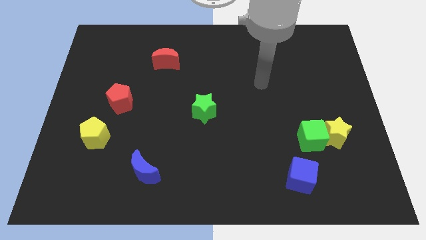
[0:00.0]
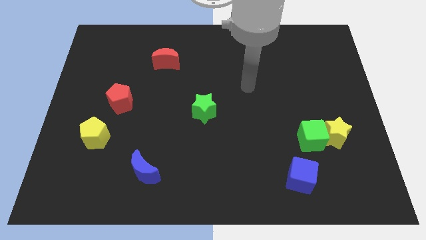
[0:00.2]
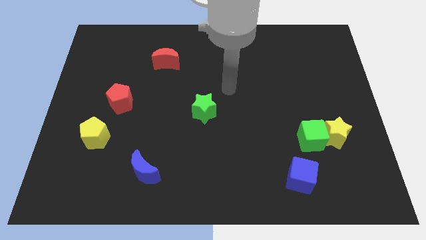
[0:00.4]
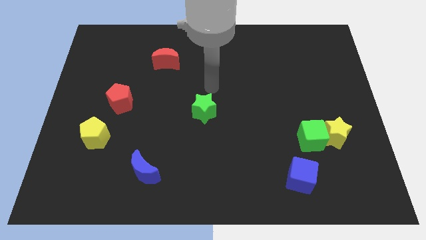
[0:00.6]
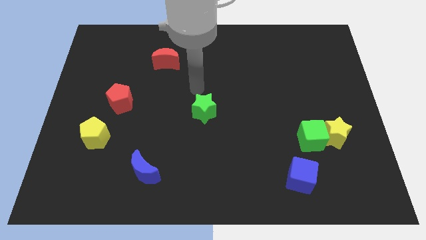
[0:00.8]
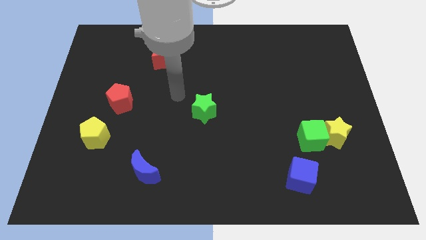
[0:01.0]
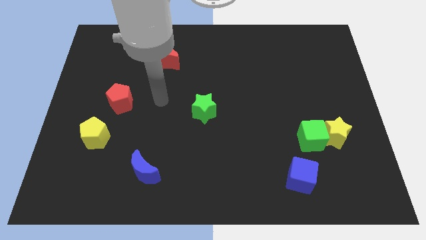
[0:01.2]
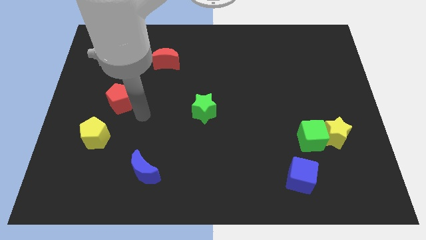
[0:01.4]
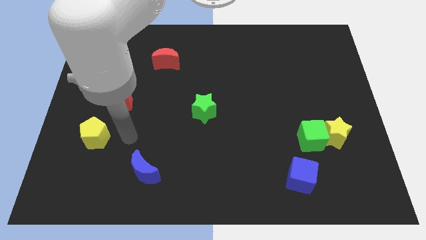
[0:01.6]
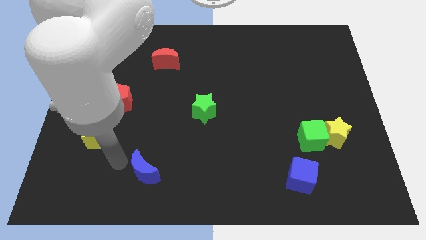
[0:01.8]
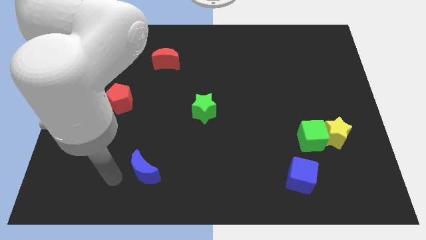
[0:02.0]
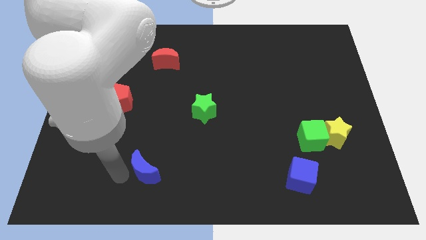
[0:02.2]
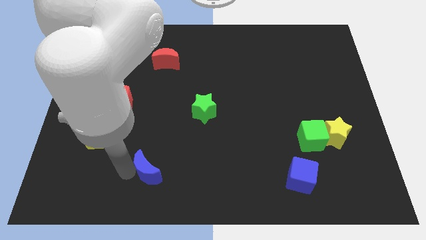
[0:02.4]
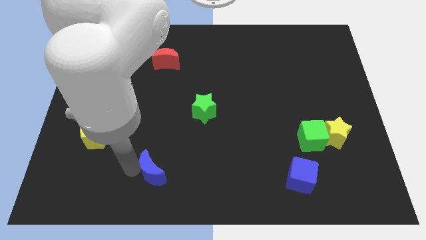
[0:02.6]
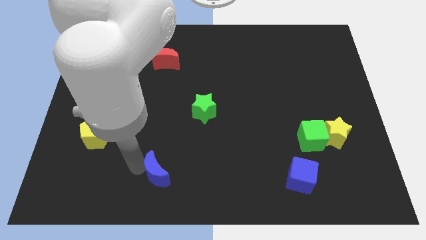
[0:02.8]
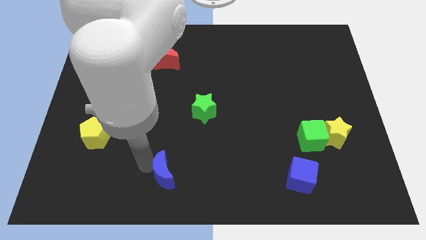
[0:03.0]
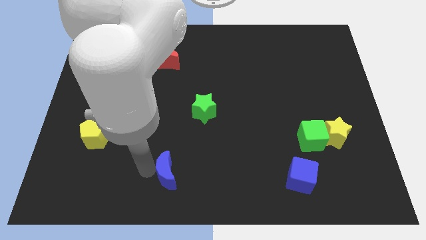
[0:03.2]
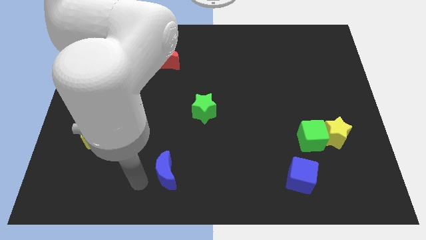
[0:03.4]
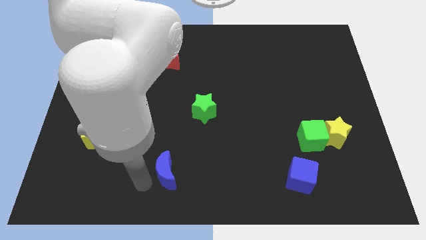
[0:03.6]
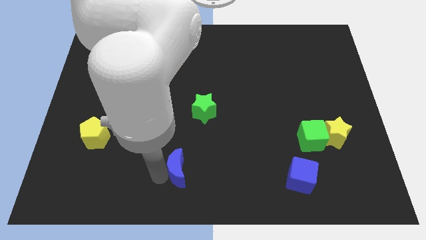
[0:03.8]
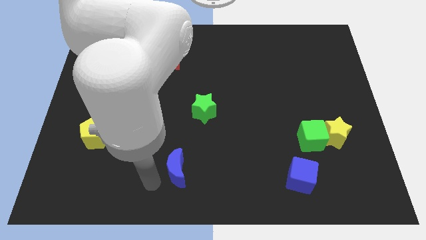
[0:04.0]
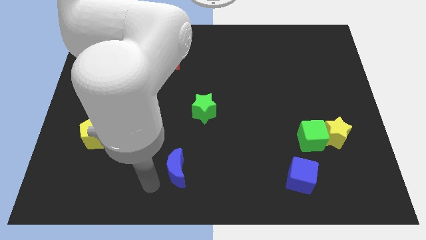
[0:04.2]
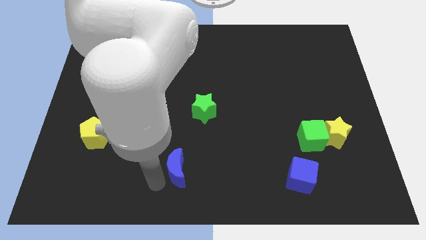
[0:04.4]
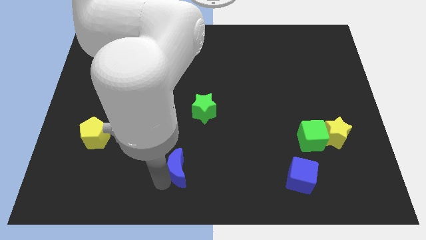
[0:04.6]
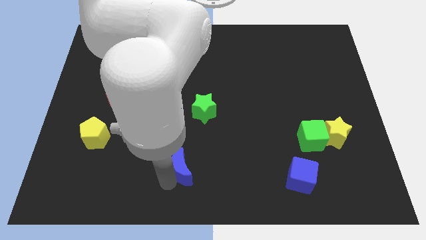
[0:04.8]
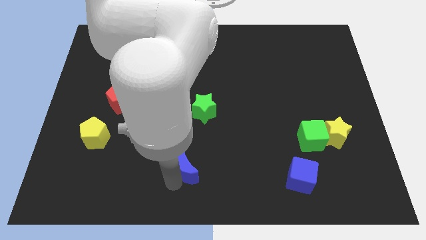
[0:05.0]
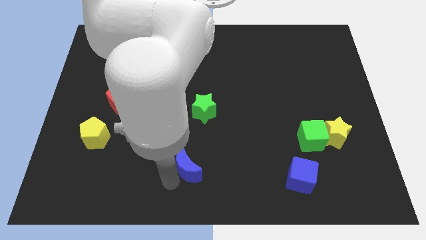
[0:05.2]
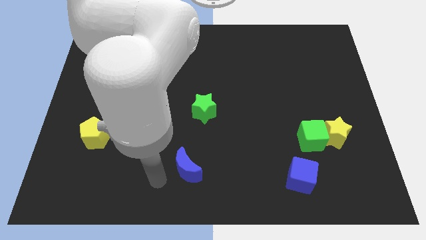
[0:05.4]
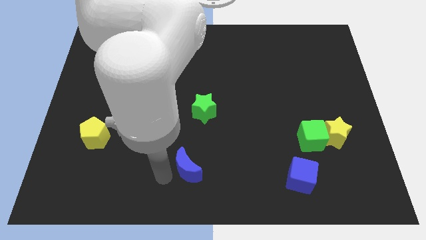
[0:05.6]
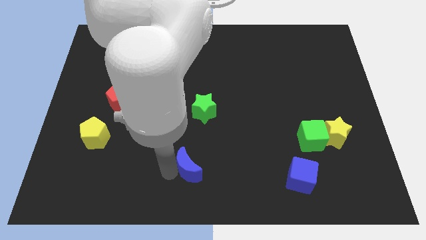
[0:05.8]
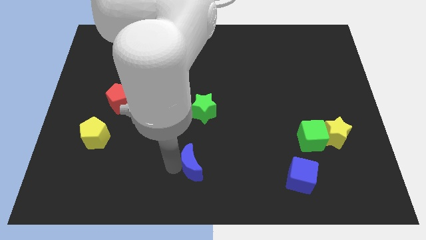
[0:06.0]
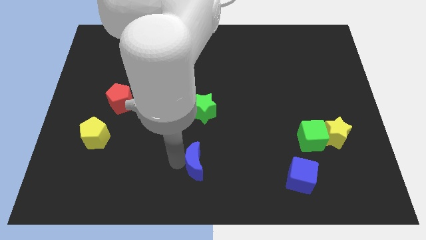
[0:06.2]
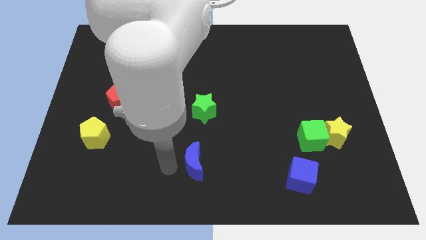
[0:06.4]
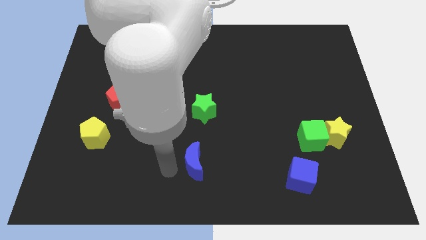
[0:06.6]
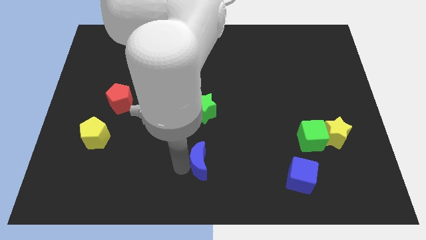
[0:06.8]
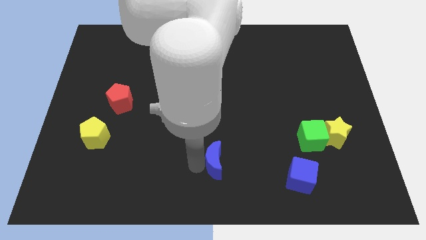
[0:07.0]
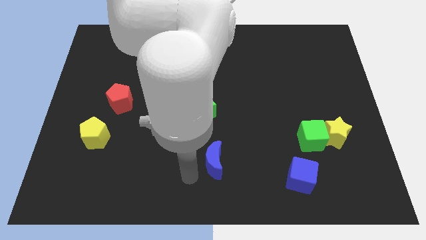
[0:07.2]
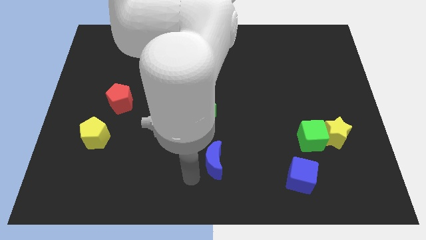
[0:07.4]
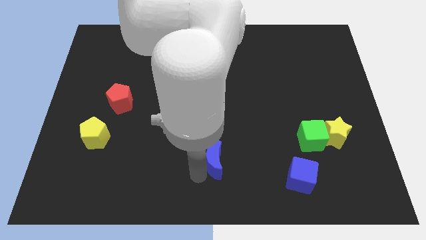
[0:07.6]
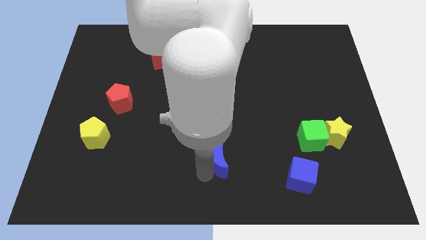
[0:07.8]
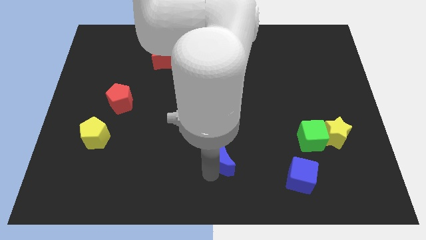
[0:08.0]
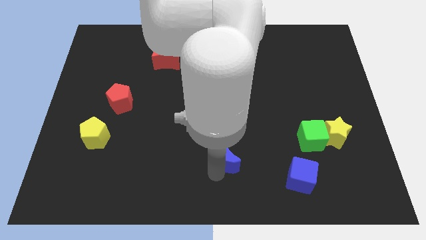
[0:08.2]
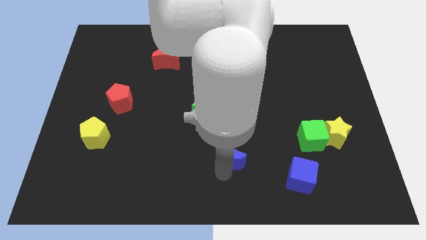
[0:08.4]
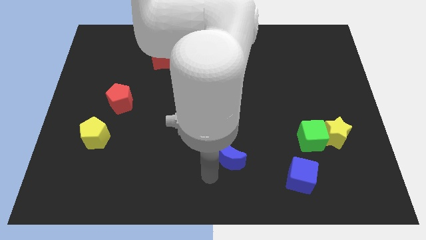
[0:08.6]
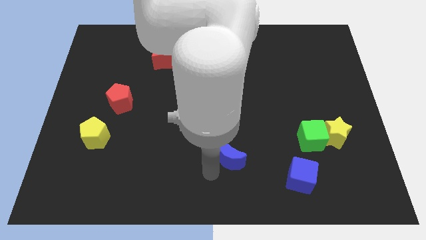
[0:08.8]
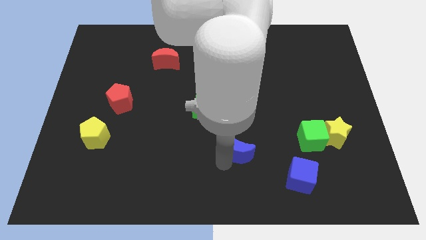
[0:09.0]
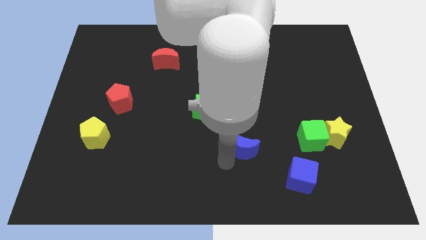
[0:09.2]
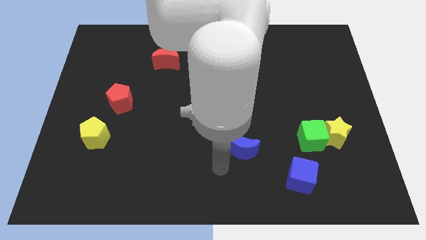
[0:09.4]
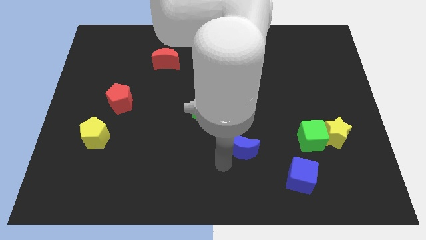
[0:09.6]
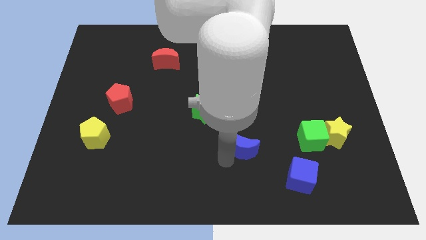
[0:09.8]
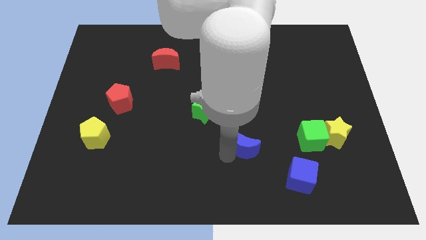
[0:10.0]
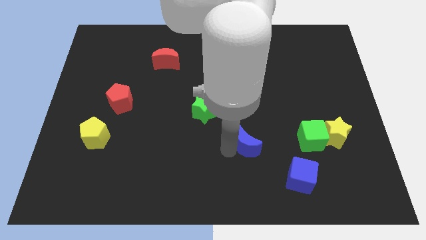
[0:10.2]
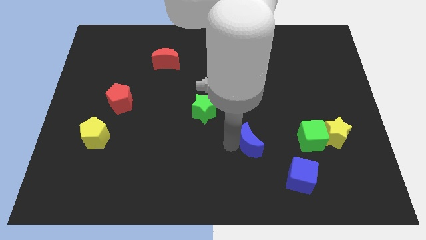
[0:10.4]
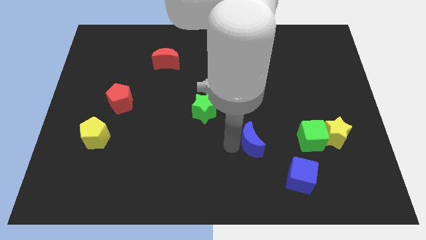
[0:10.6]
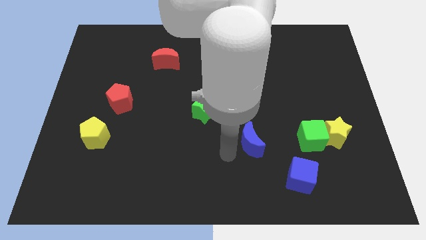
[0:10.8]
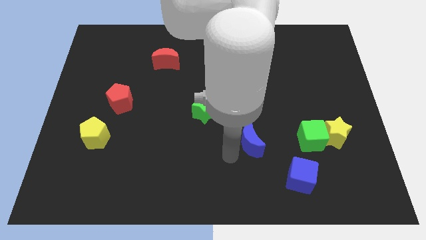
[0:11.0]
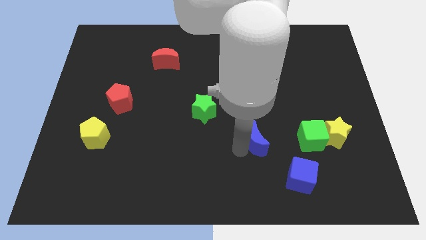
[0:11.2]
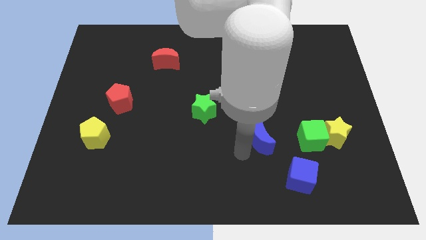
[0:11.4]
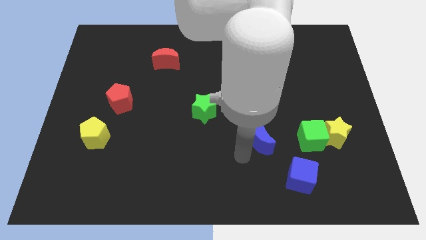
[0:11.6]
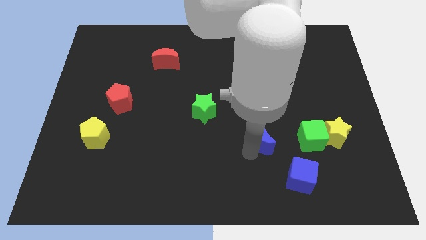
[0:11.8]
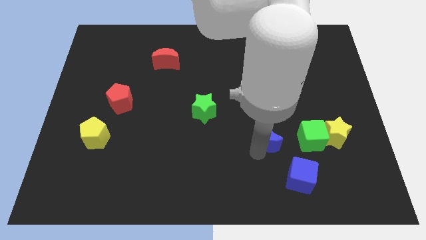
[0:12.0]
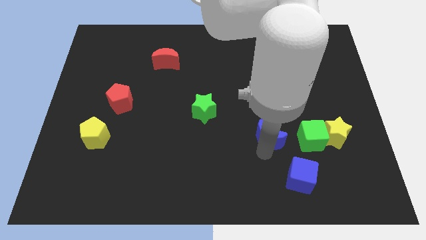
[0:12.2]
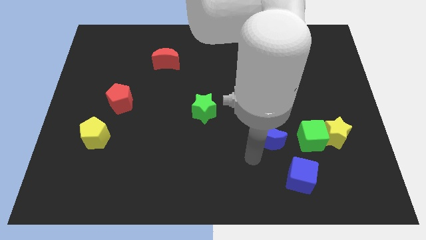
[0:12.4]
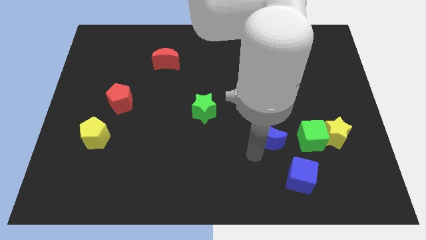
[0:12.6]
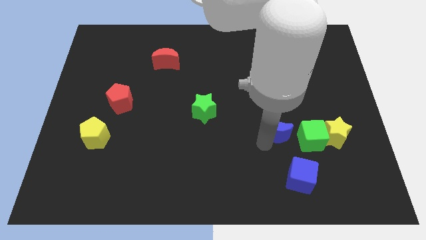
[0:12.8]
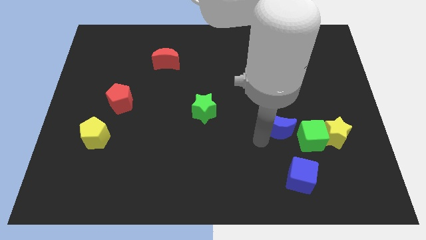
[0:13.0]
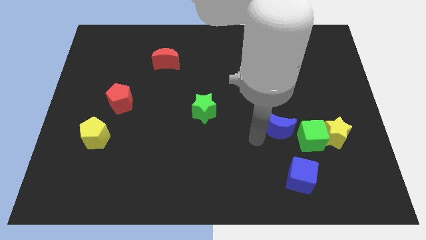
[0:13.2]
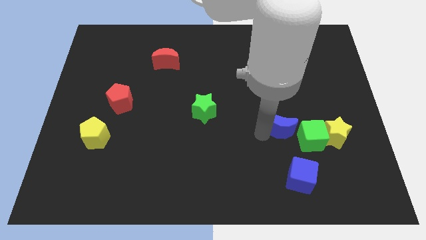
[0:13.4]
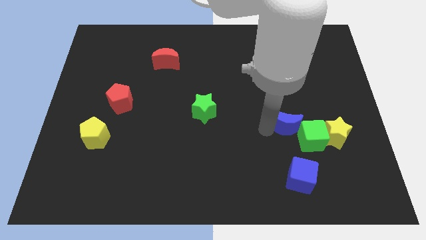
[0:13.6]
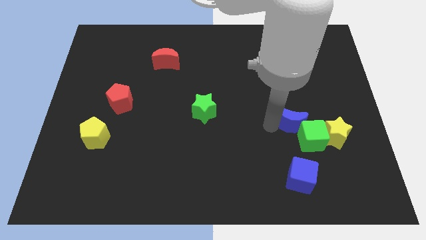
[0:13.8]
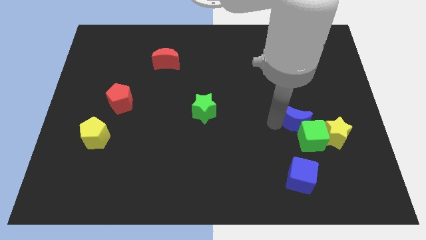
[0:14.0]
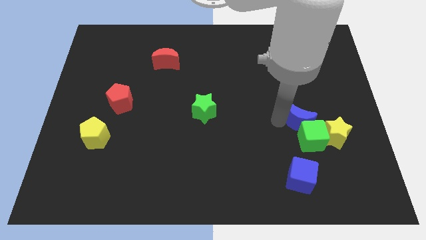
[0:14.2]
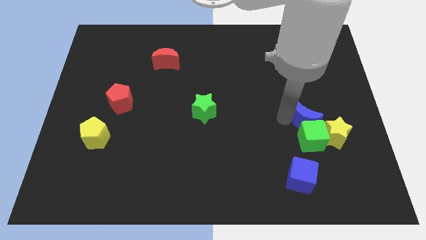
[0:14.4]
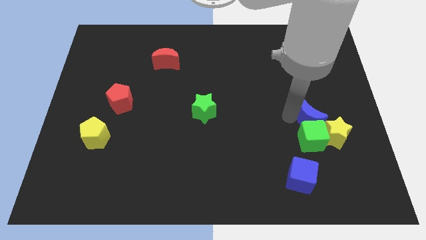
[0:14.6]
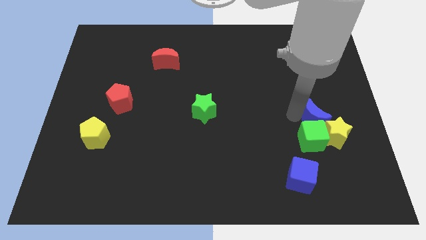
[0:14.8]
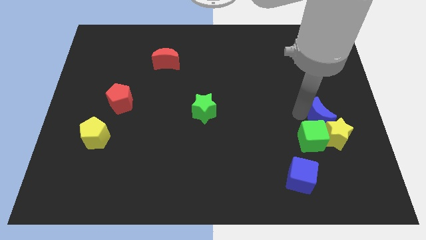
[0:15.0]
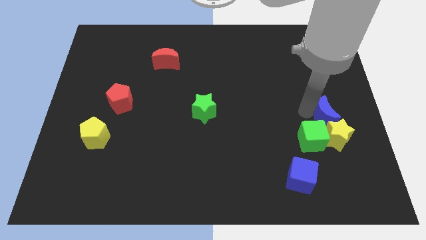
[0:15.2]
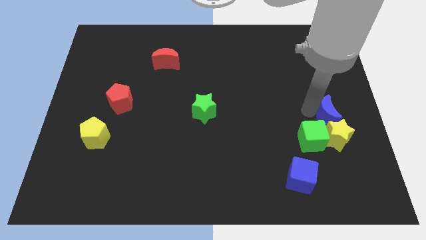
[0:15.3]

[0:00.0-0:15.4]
slide the blue moon to the right side of the board
